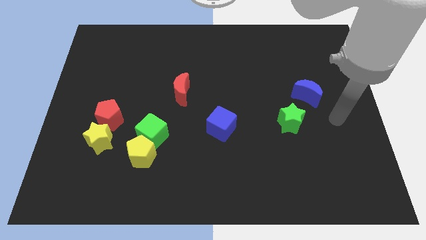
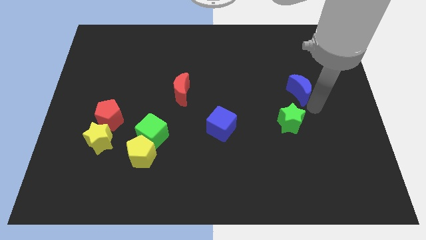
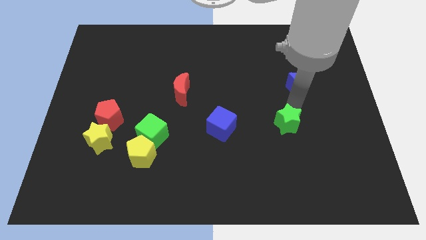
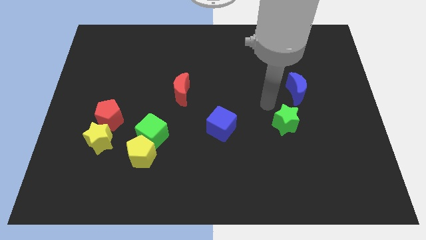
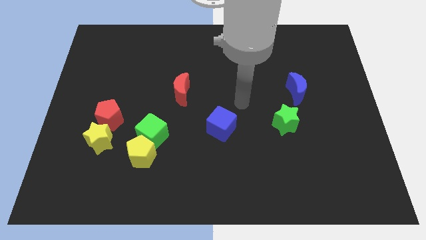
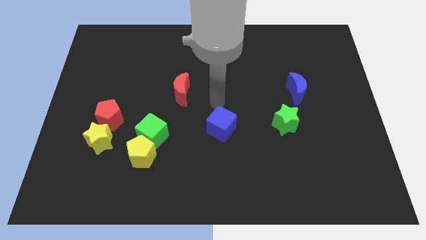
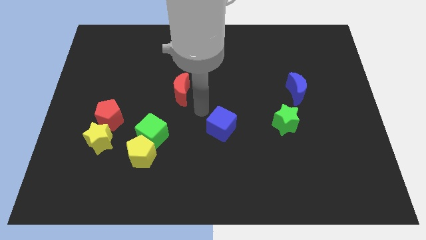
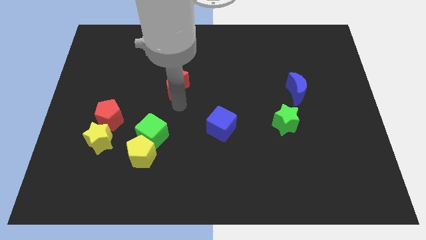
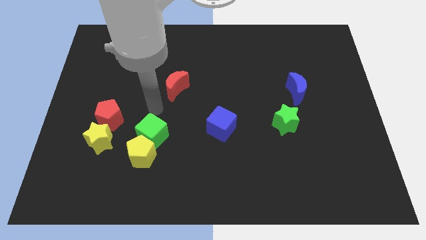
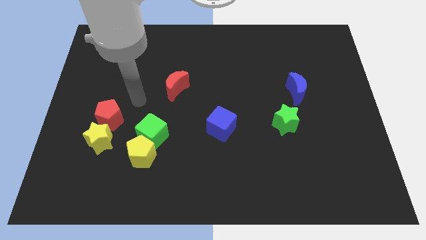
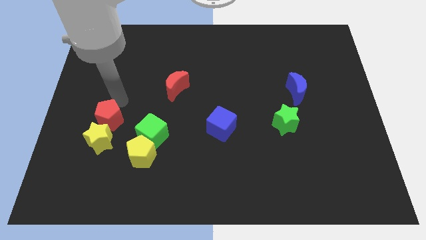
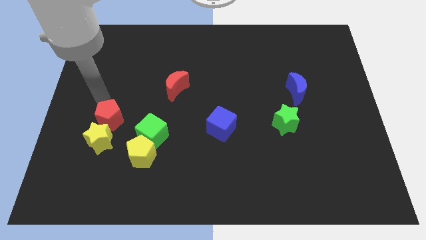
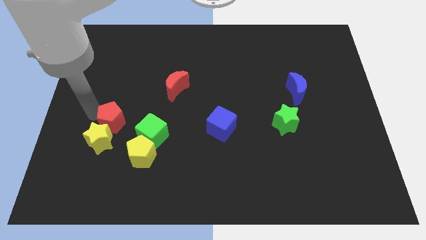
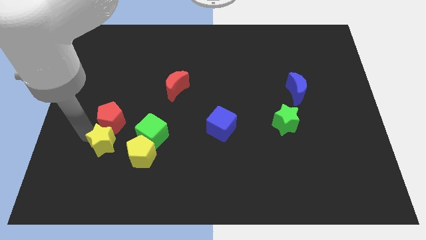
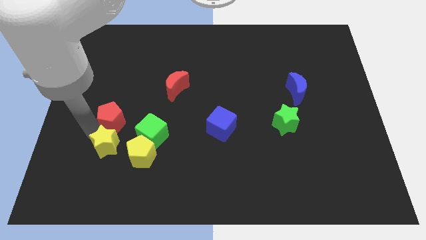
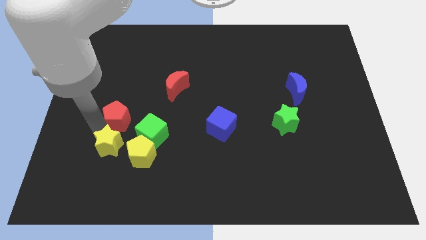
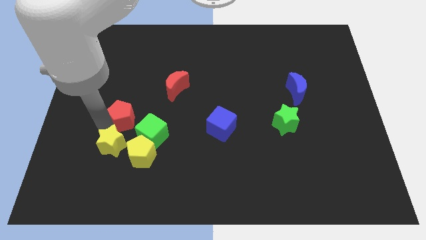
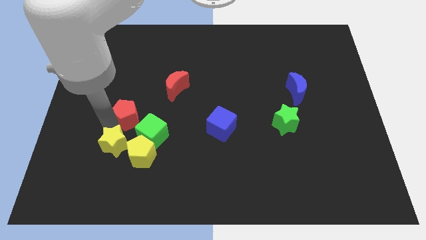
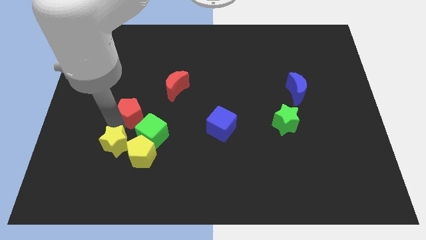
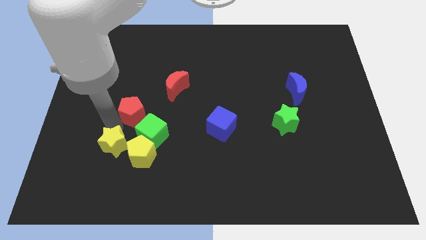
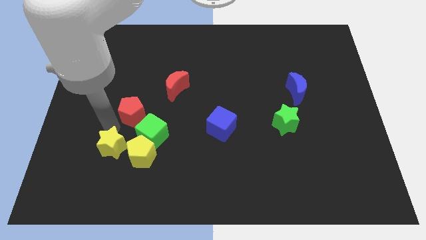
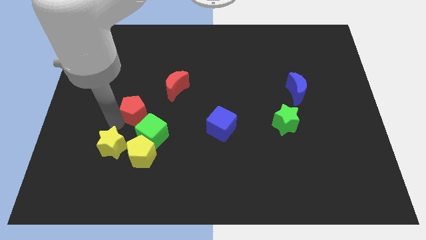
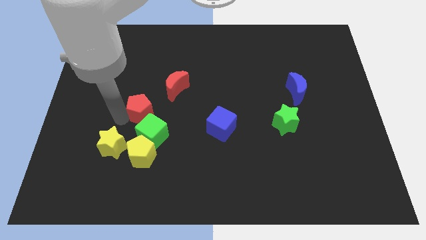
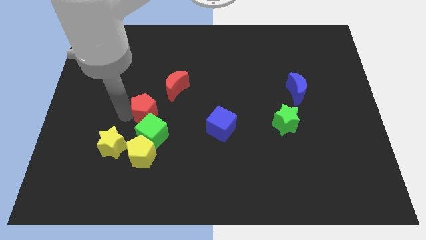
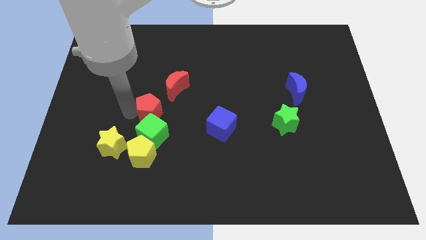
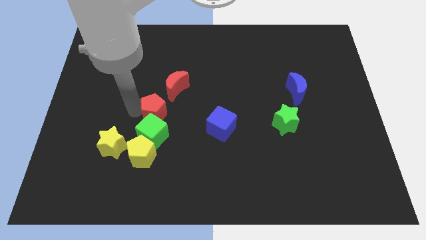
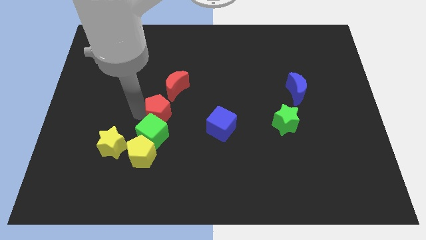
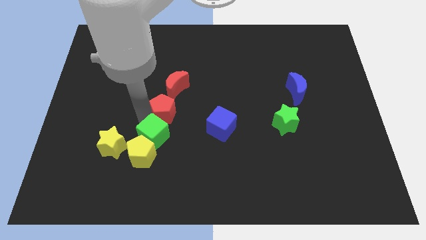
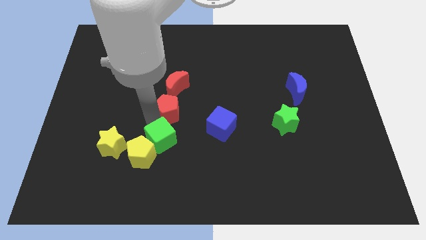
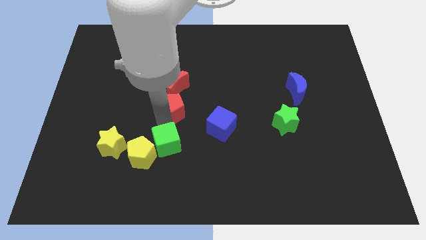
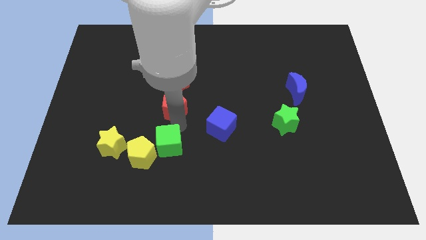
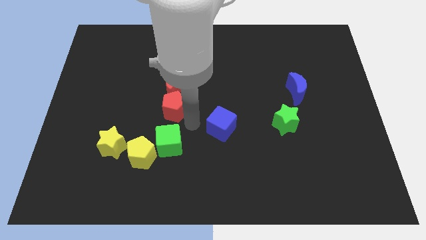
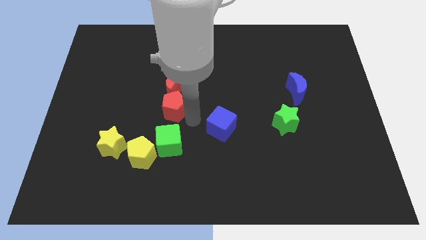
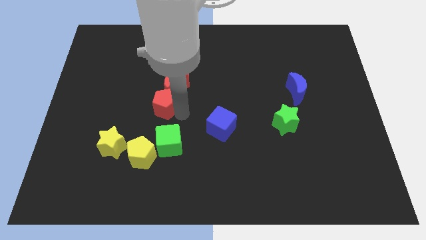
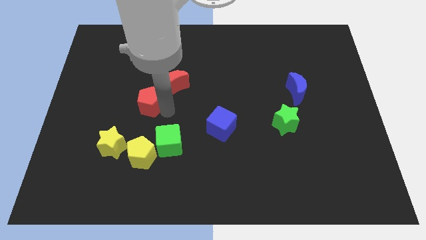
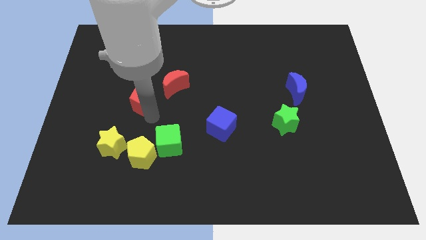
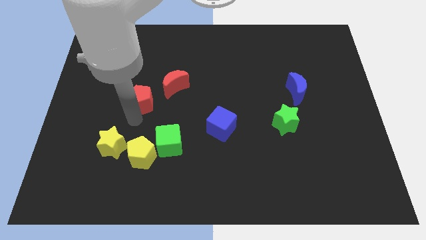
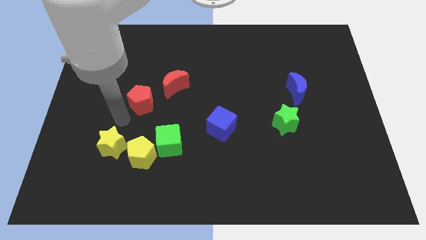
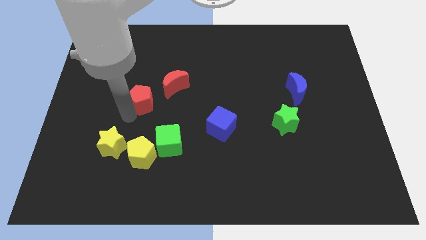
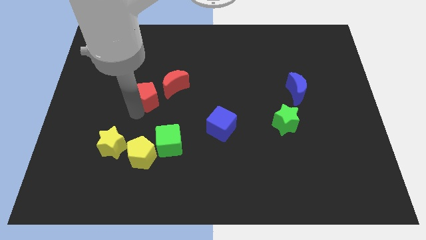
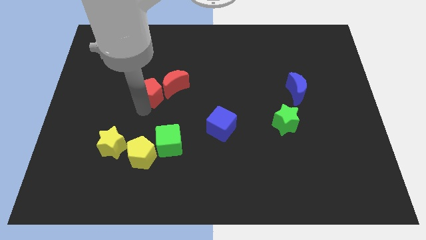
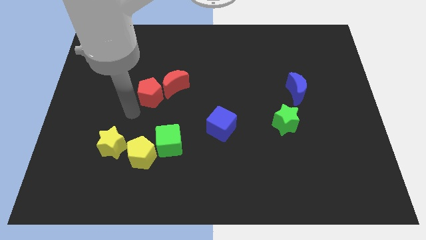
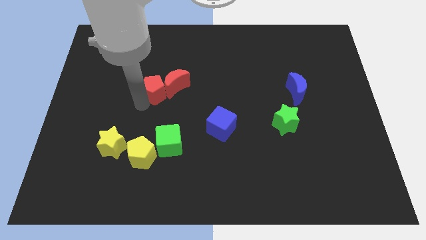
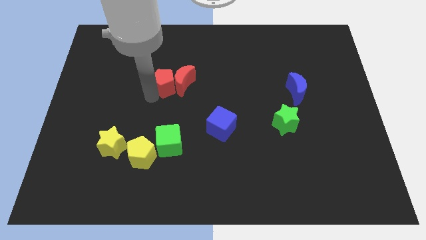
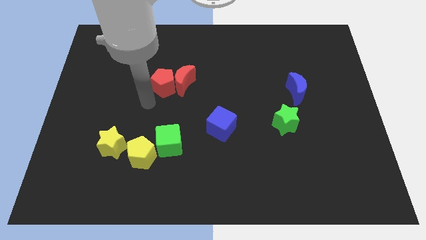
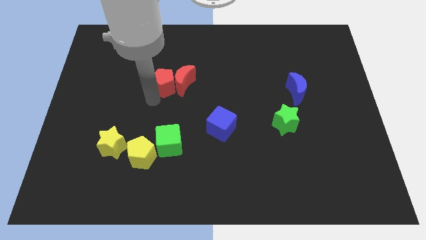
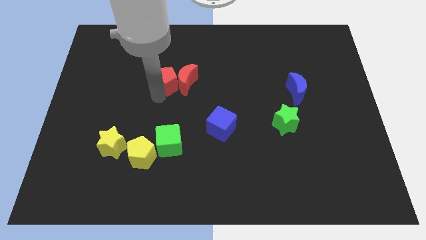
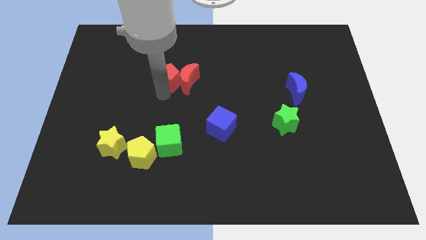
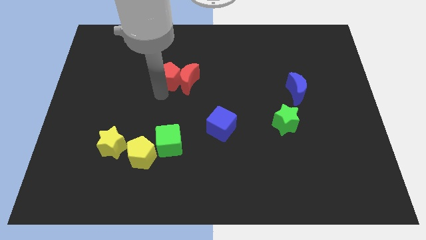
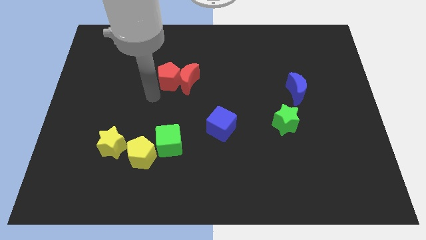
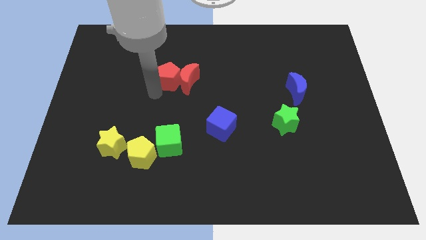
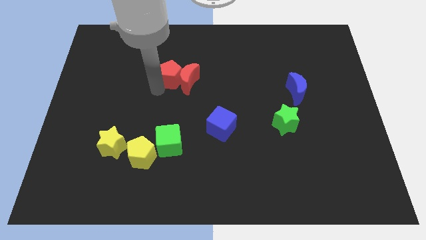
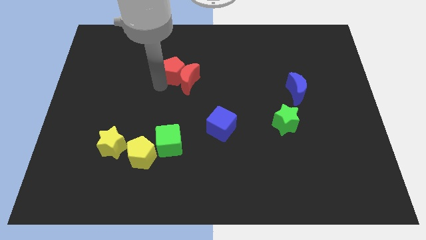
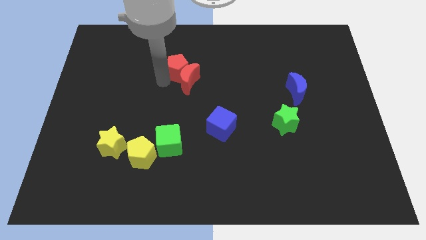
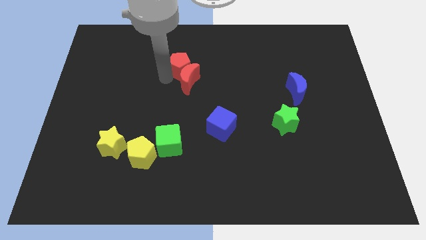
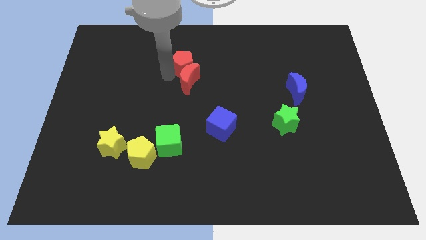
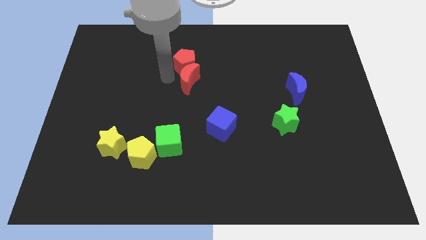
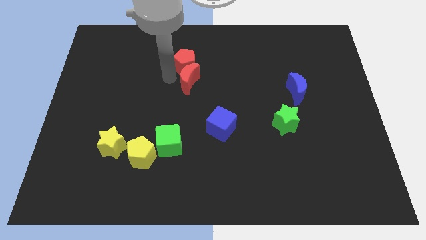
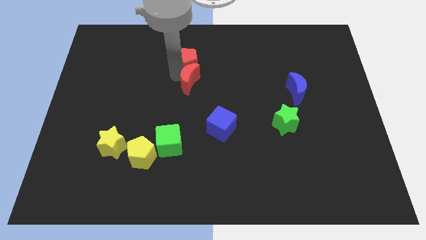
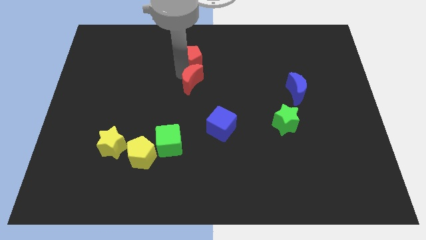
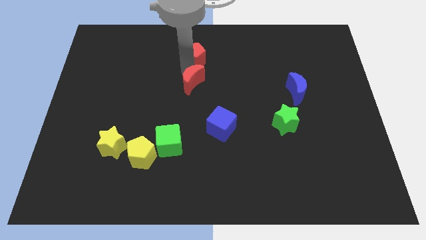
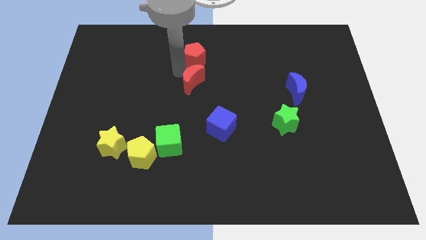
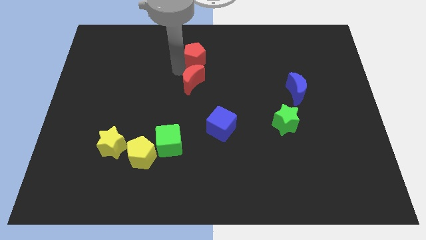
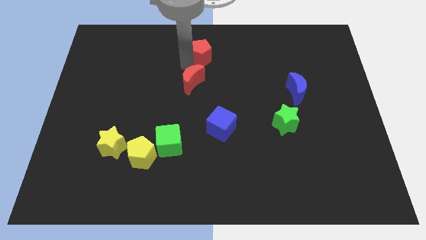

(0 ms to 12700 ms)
slide the red pentagon to the top side
